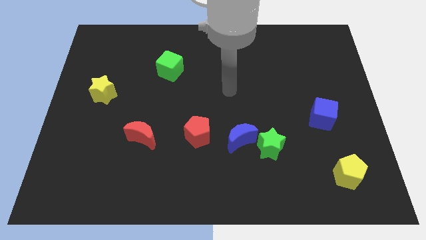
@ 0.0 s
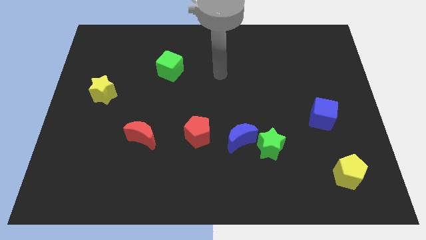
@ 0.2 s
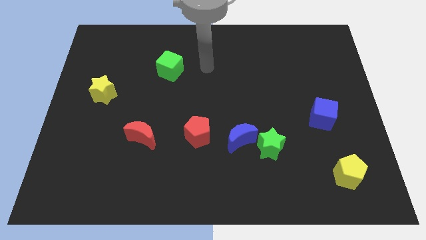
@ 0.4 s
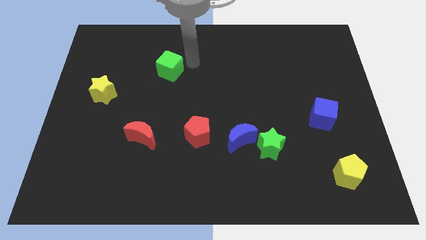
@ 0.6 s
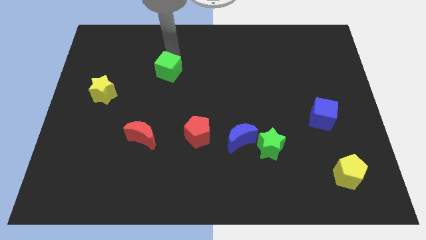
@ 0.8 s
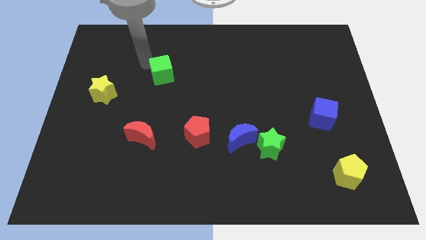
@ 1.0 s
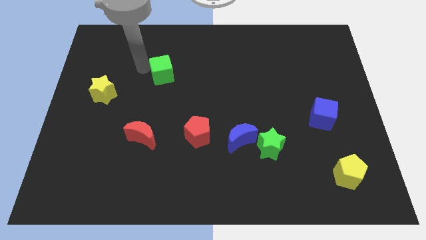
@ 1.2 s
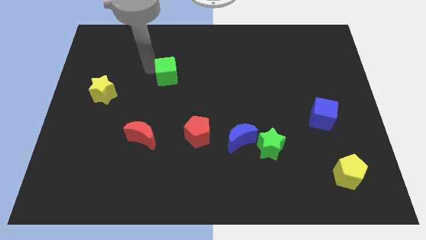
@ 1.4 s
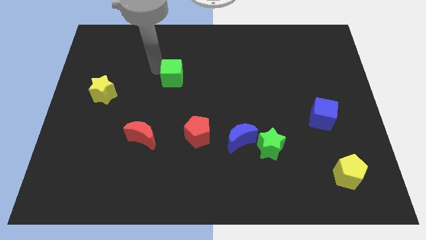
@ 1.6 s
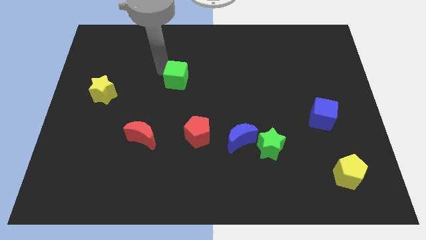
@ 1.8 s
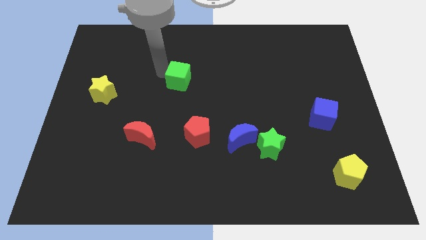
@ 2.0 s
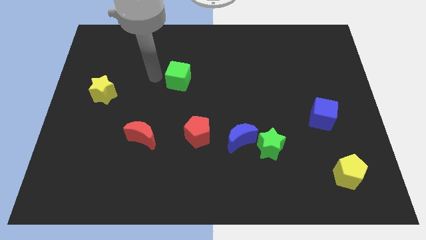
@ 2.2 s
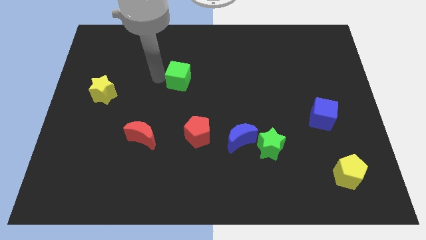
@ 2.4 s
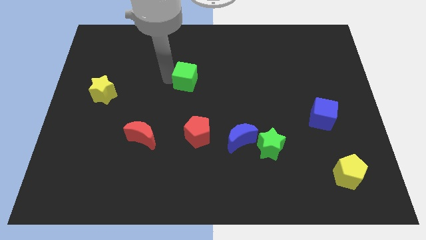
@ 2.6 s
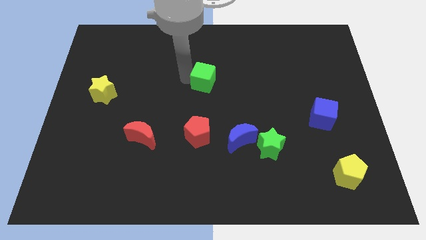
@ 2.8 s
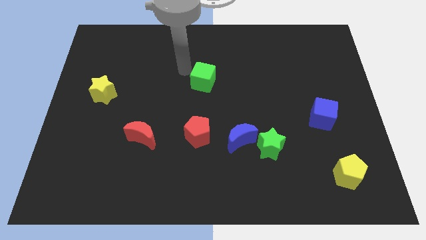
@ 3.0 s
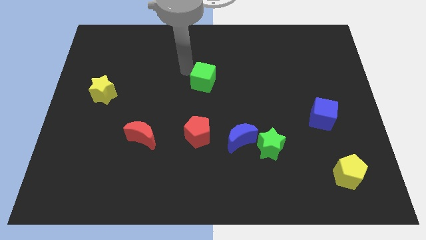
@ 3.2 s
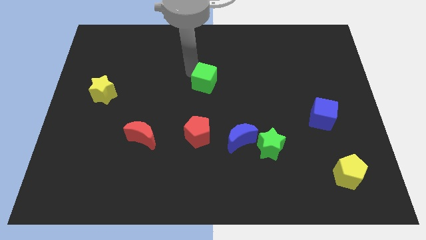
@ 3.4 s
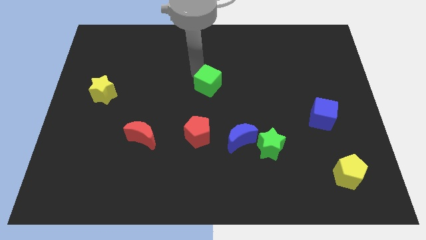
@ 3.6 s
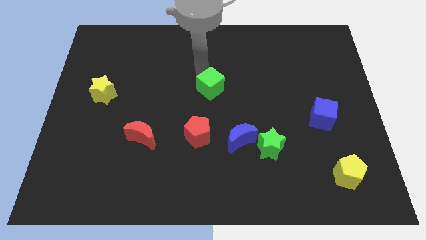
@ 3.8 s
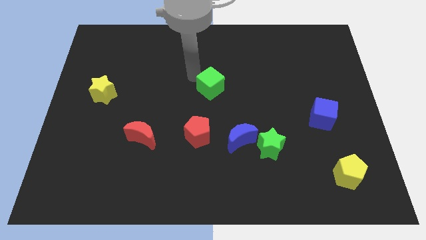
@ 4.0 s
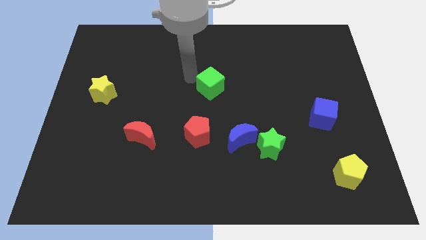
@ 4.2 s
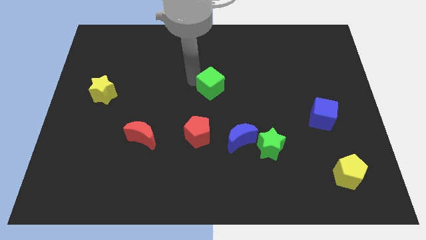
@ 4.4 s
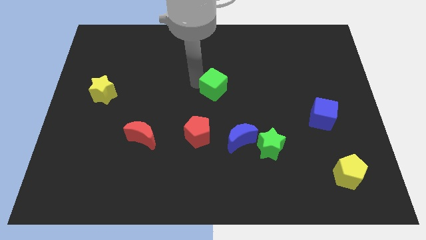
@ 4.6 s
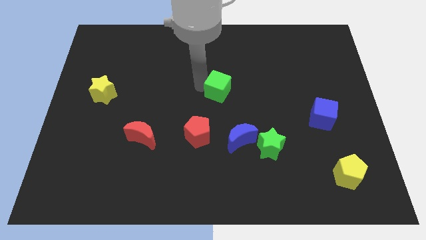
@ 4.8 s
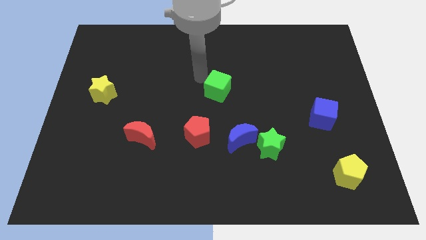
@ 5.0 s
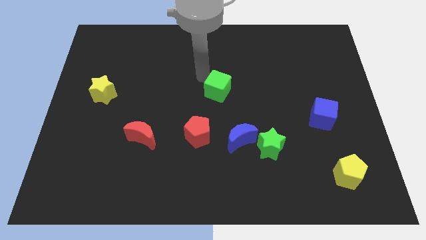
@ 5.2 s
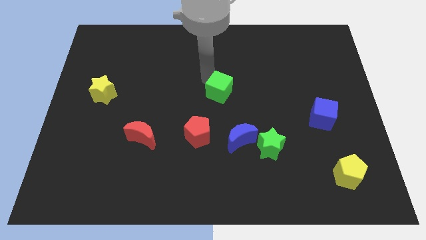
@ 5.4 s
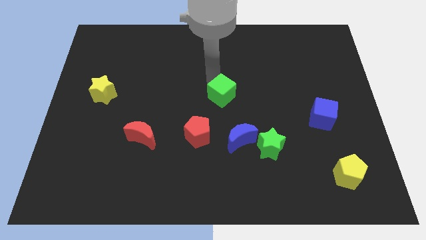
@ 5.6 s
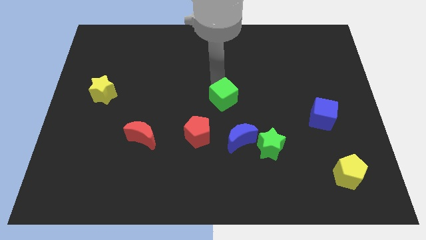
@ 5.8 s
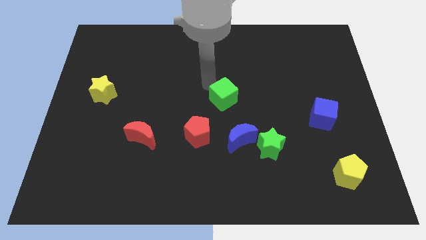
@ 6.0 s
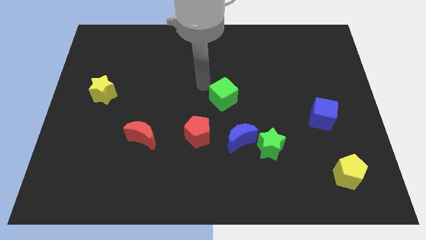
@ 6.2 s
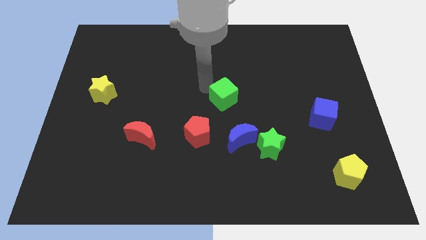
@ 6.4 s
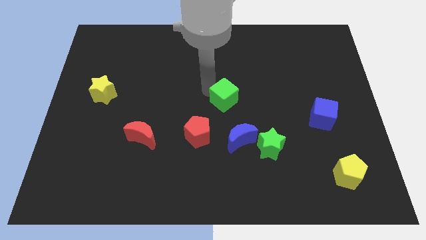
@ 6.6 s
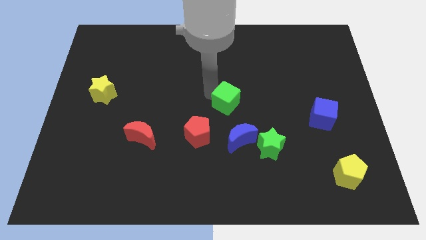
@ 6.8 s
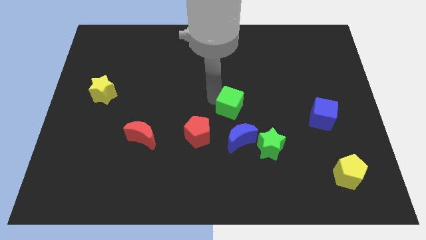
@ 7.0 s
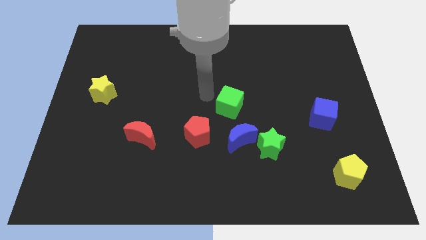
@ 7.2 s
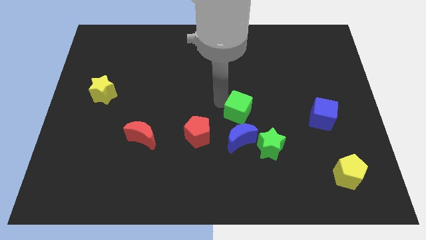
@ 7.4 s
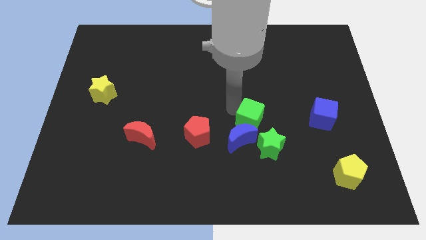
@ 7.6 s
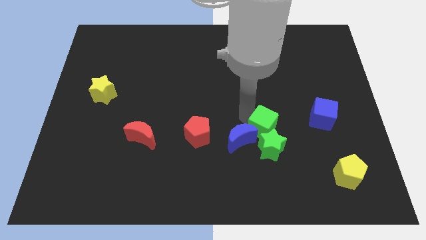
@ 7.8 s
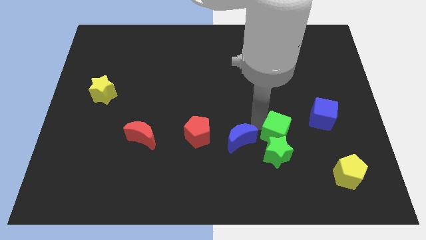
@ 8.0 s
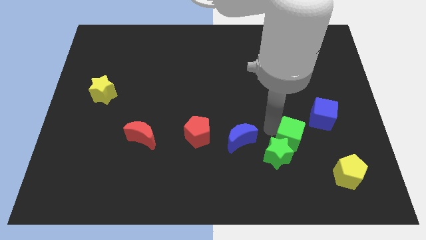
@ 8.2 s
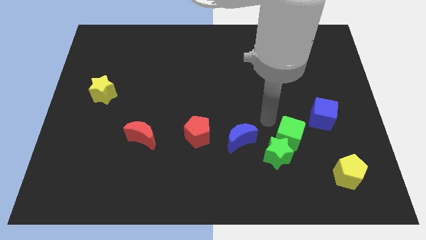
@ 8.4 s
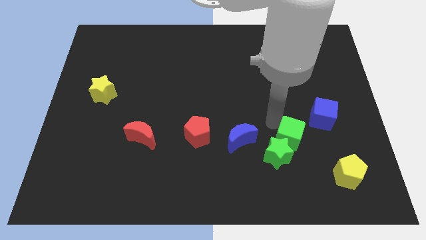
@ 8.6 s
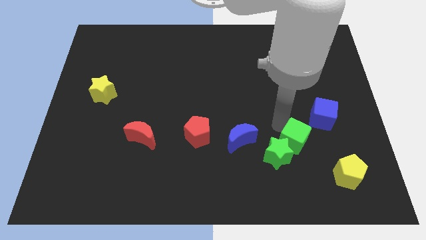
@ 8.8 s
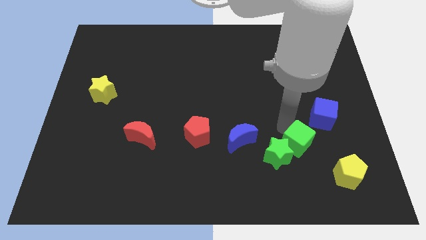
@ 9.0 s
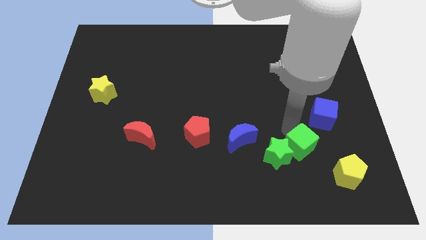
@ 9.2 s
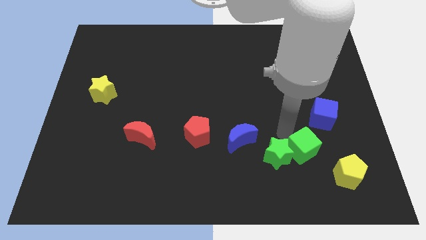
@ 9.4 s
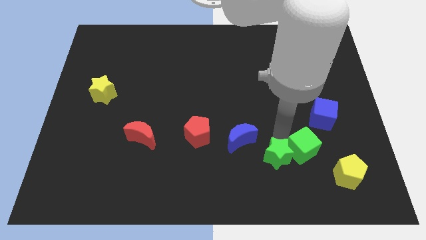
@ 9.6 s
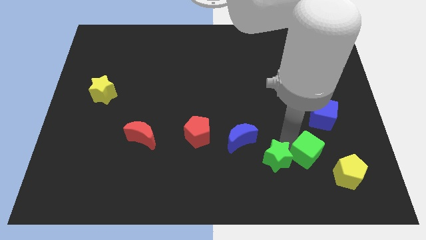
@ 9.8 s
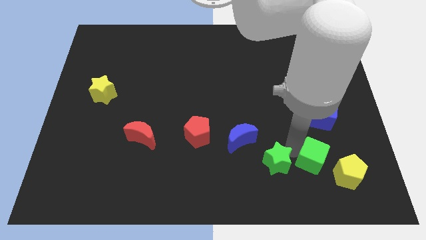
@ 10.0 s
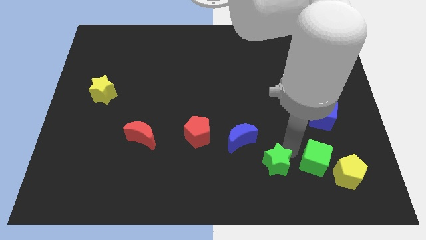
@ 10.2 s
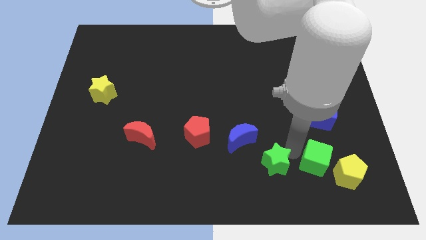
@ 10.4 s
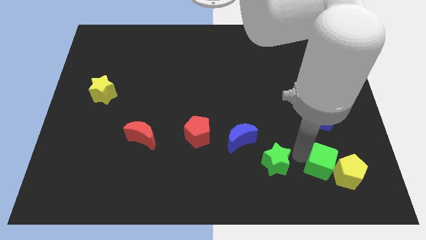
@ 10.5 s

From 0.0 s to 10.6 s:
slide the green cube close to the yellow pentagon

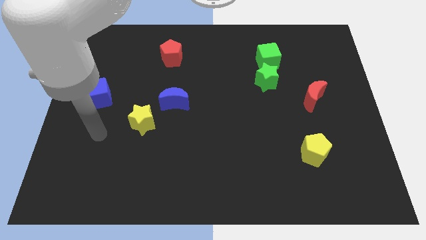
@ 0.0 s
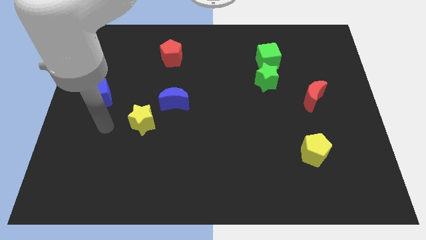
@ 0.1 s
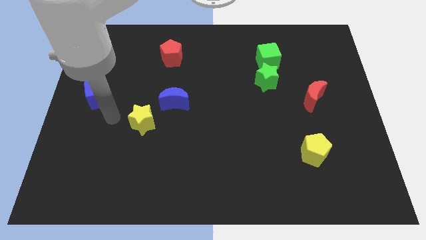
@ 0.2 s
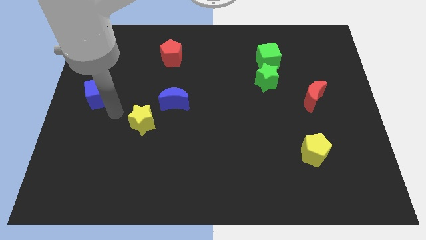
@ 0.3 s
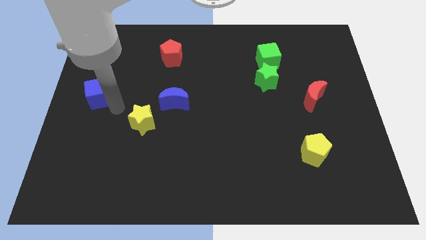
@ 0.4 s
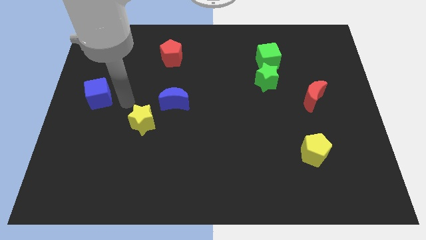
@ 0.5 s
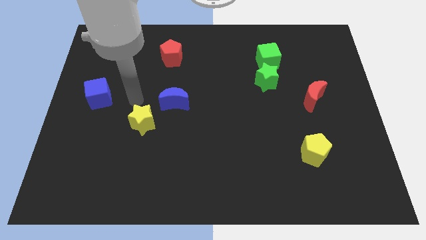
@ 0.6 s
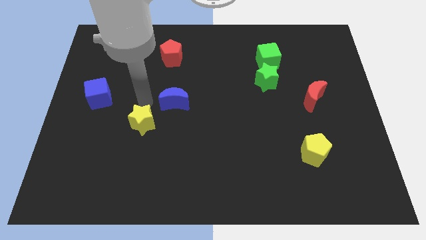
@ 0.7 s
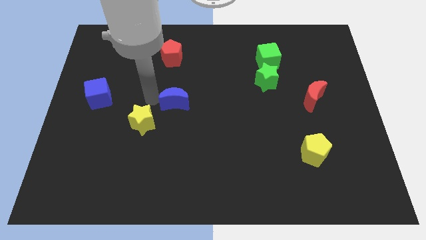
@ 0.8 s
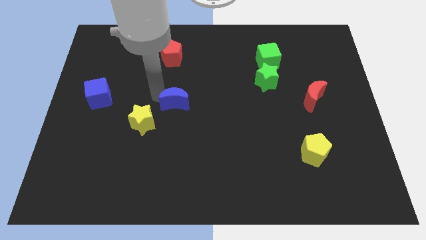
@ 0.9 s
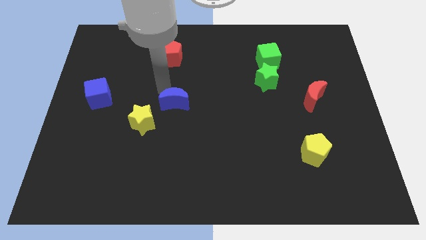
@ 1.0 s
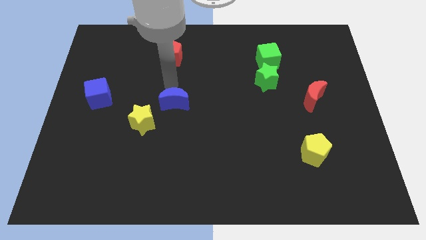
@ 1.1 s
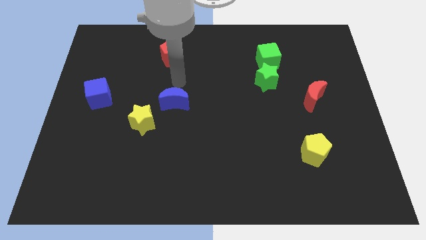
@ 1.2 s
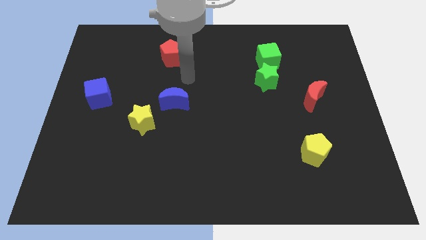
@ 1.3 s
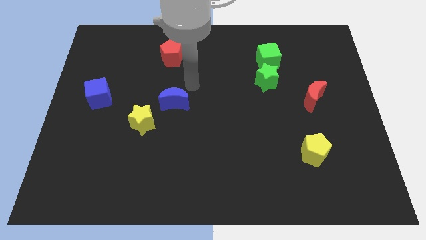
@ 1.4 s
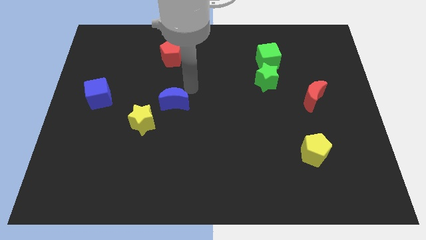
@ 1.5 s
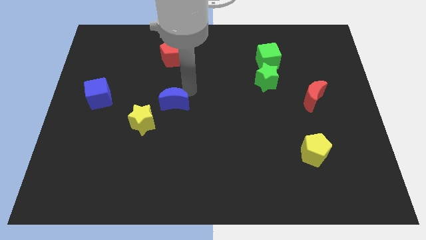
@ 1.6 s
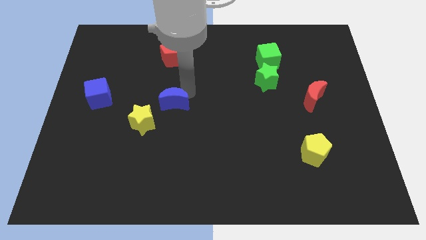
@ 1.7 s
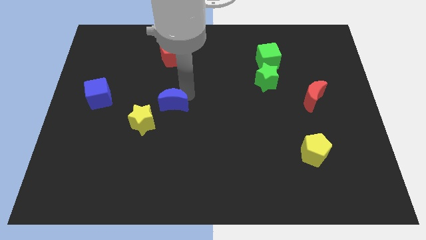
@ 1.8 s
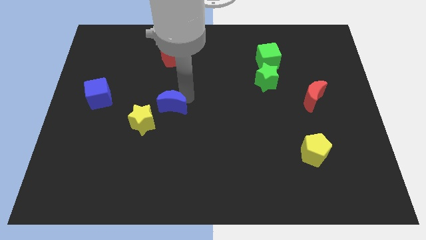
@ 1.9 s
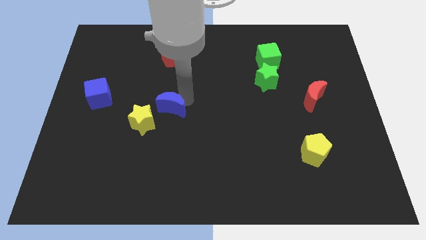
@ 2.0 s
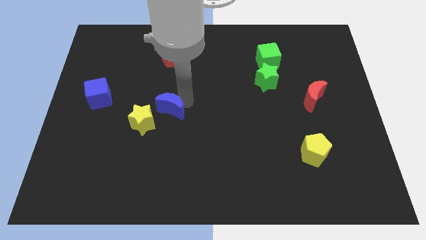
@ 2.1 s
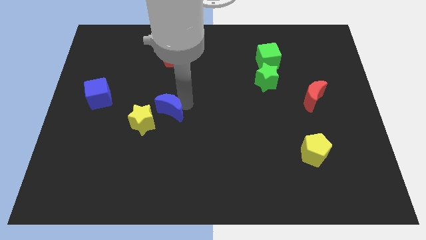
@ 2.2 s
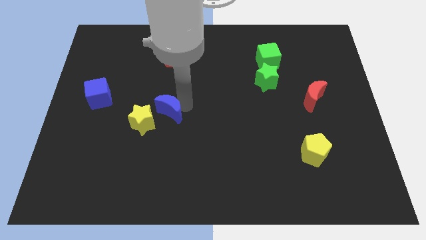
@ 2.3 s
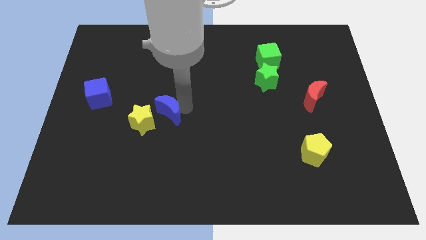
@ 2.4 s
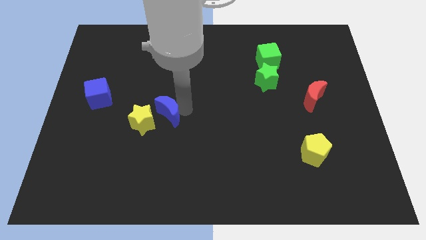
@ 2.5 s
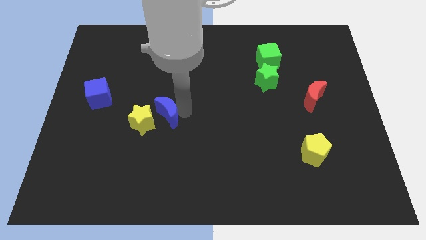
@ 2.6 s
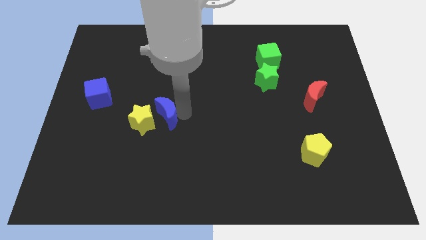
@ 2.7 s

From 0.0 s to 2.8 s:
slide the blue moon close to the yellow star
